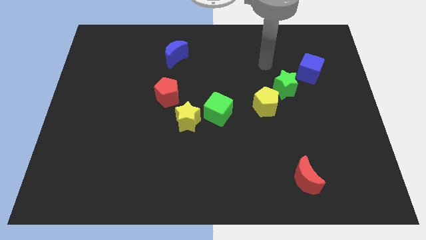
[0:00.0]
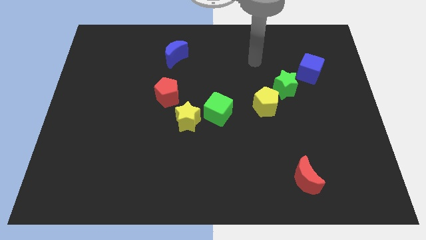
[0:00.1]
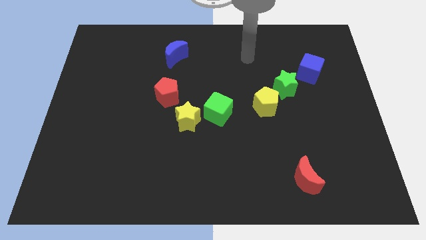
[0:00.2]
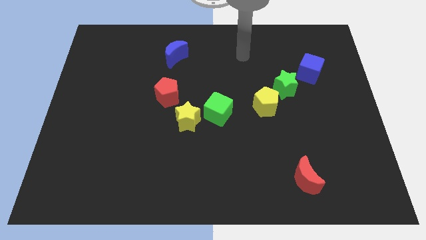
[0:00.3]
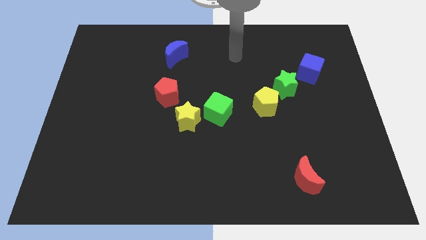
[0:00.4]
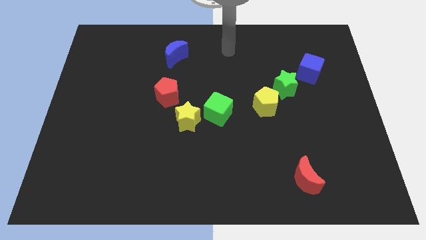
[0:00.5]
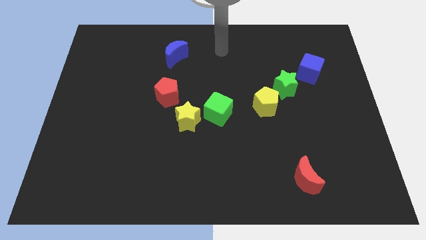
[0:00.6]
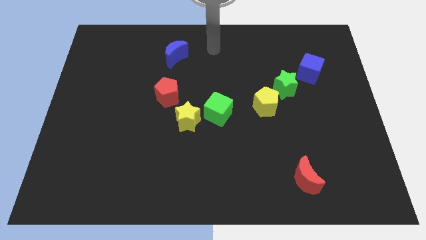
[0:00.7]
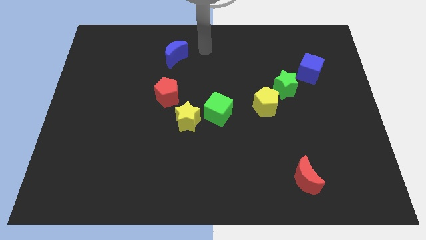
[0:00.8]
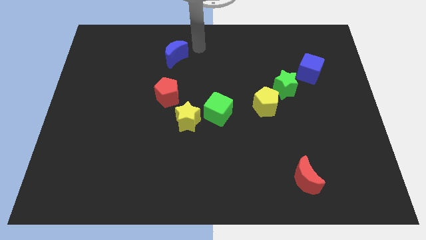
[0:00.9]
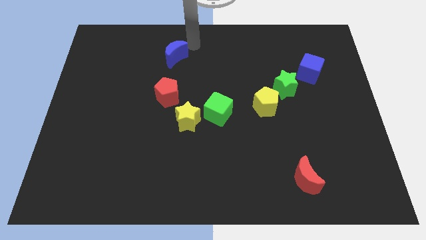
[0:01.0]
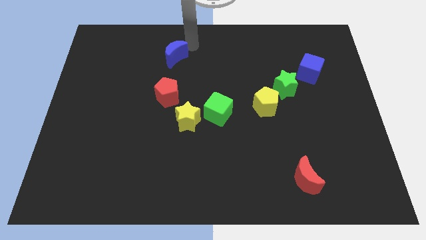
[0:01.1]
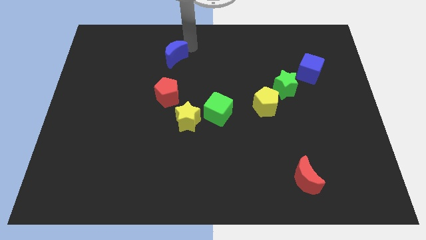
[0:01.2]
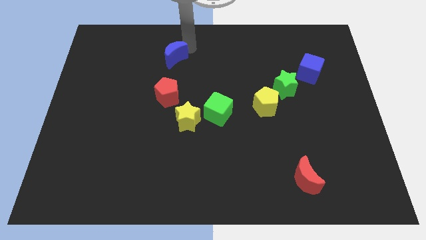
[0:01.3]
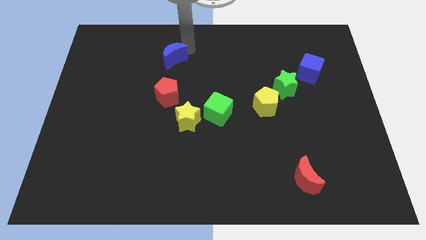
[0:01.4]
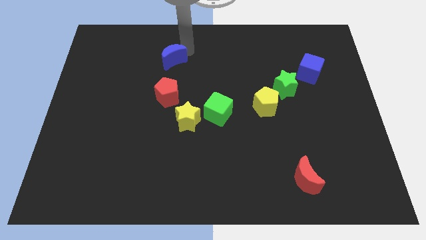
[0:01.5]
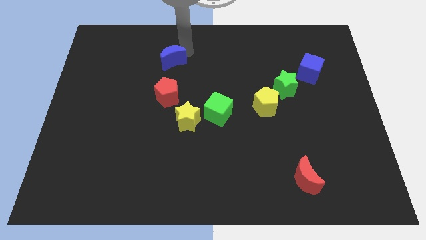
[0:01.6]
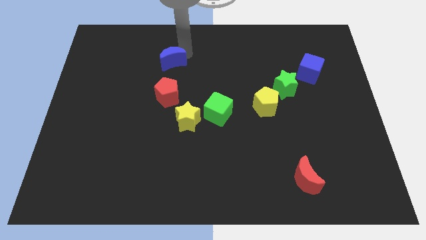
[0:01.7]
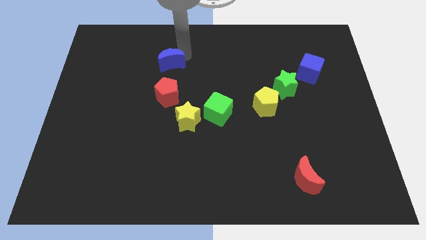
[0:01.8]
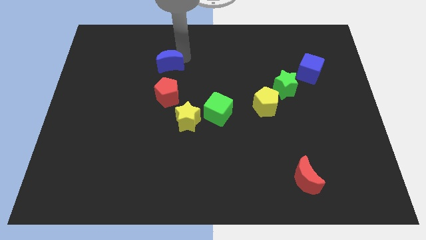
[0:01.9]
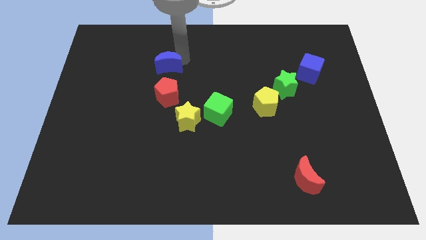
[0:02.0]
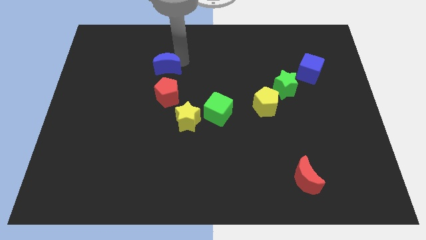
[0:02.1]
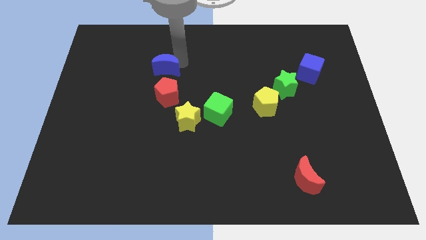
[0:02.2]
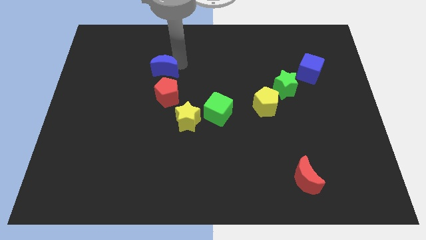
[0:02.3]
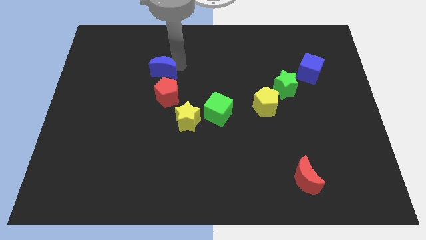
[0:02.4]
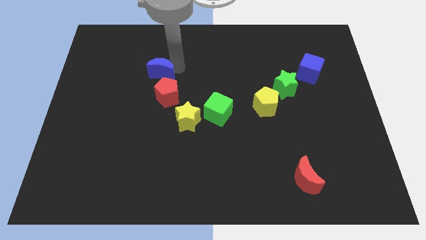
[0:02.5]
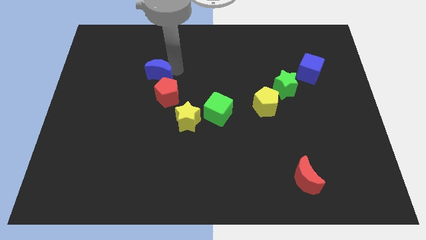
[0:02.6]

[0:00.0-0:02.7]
slightly move the blue moon downwards and then to the left

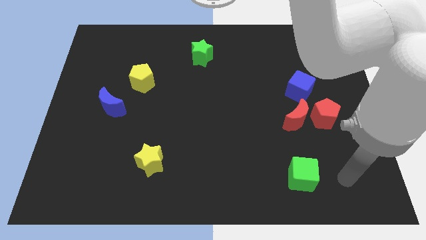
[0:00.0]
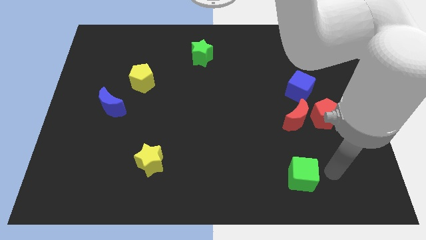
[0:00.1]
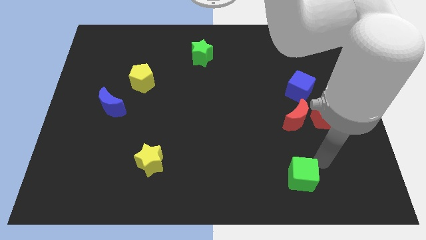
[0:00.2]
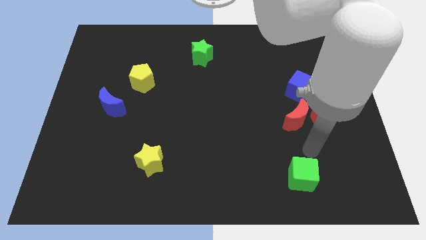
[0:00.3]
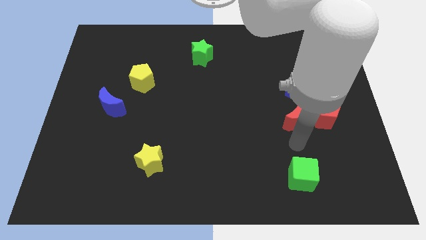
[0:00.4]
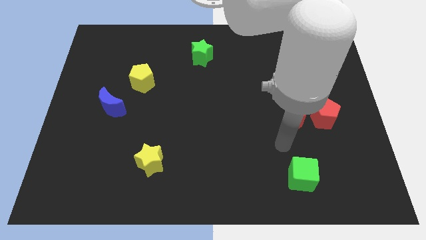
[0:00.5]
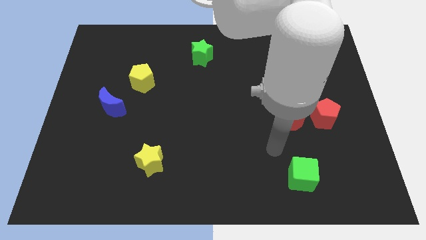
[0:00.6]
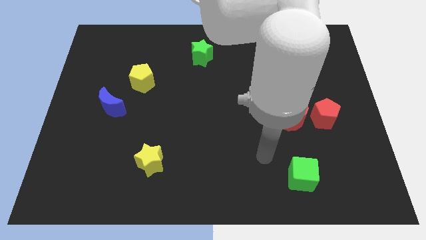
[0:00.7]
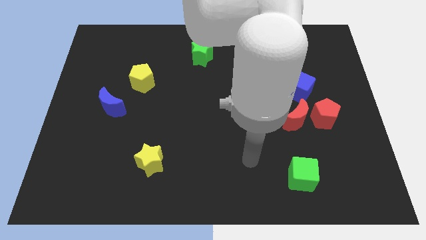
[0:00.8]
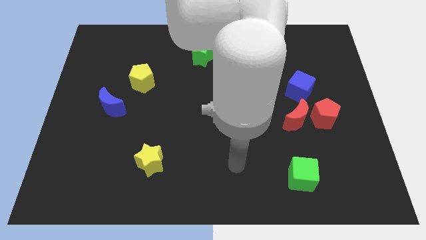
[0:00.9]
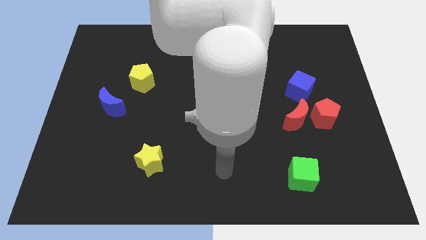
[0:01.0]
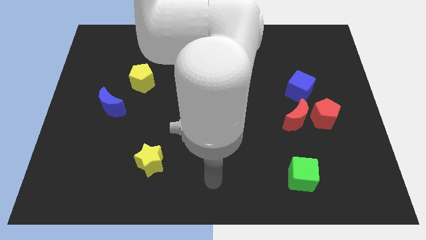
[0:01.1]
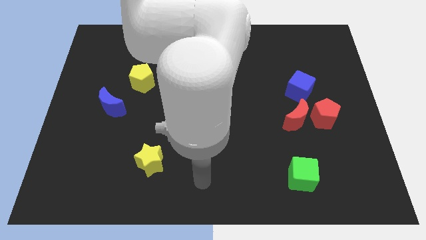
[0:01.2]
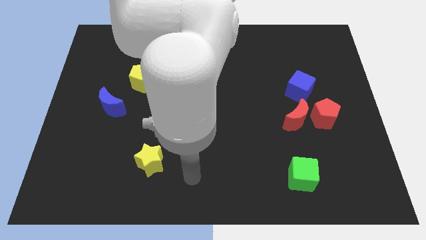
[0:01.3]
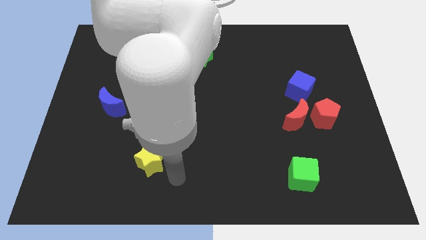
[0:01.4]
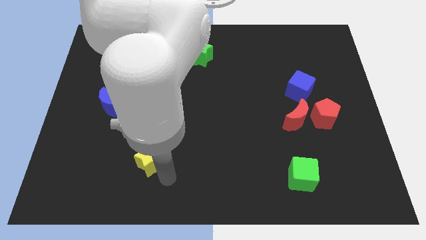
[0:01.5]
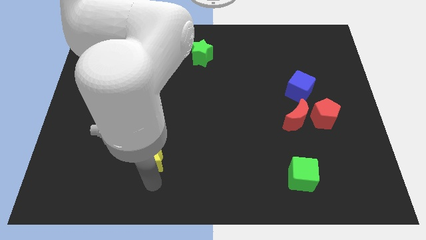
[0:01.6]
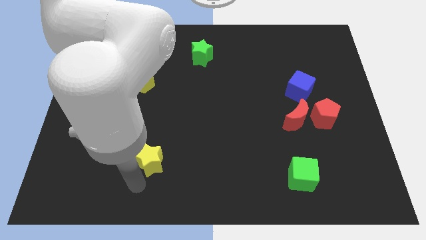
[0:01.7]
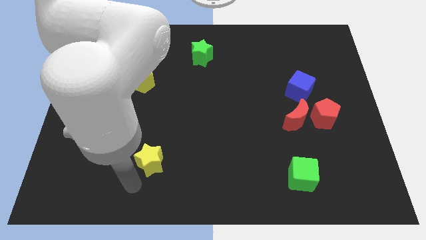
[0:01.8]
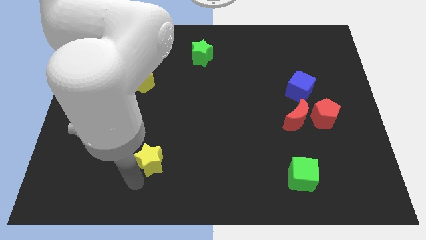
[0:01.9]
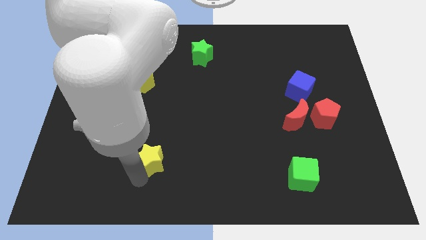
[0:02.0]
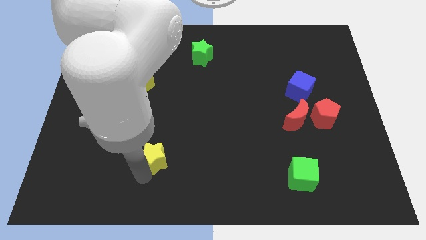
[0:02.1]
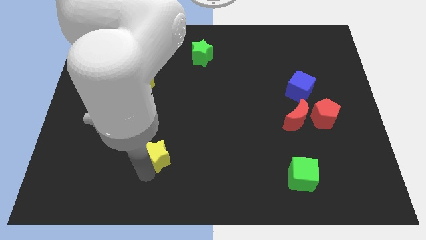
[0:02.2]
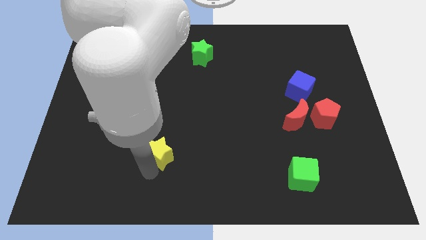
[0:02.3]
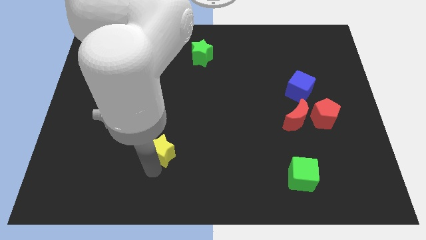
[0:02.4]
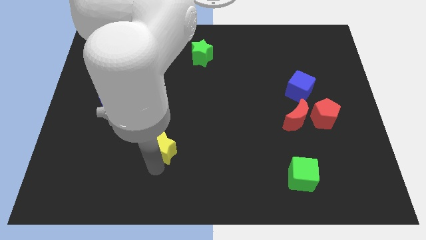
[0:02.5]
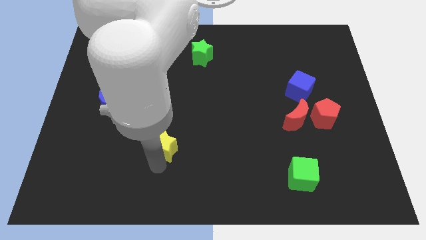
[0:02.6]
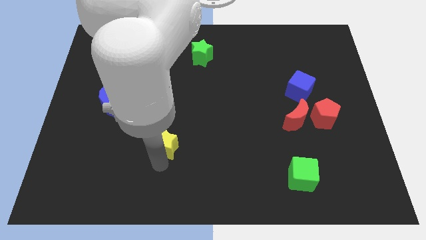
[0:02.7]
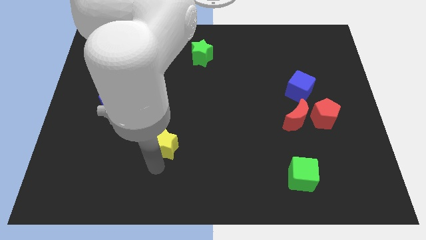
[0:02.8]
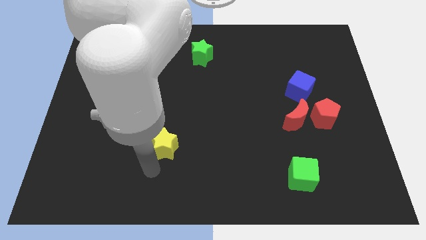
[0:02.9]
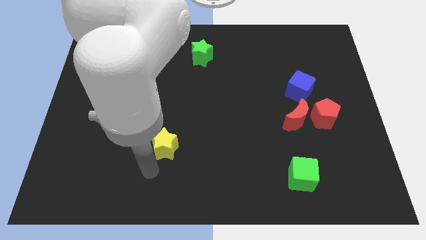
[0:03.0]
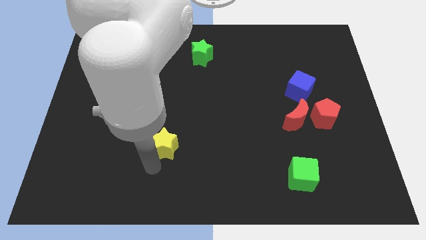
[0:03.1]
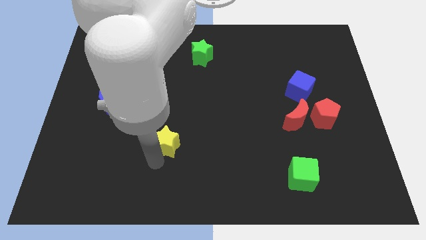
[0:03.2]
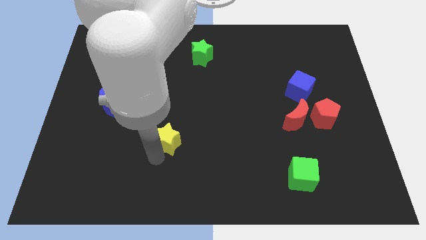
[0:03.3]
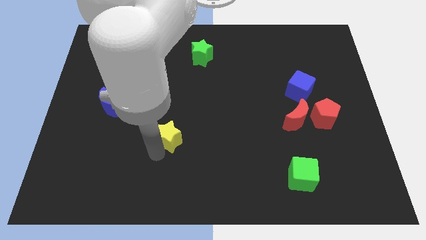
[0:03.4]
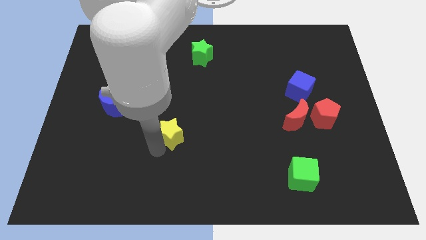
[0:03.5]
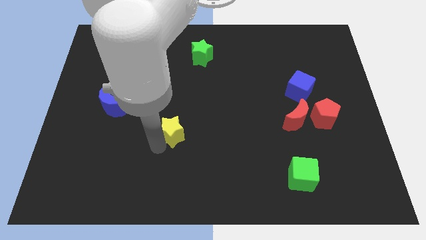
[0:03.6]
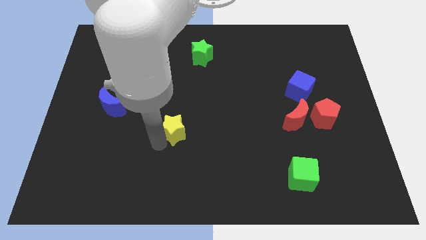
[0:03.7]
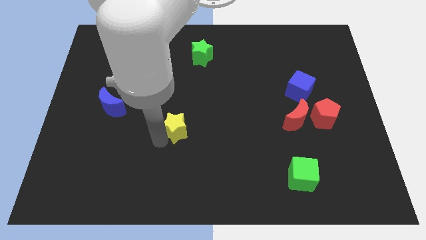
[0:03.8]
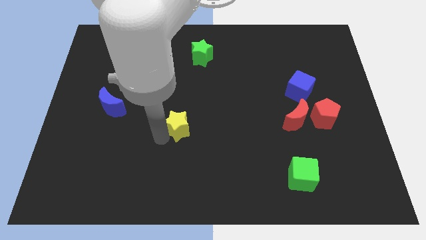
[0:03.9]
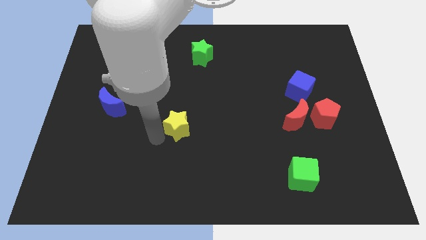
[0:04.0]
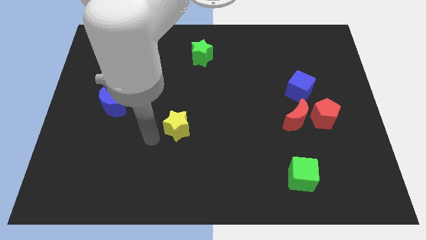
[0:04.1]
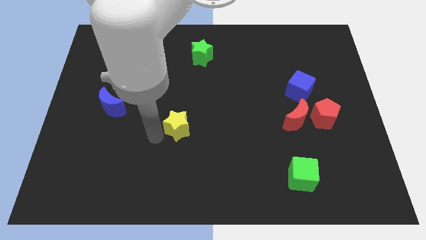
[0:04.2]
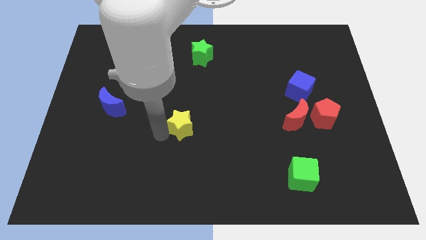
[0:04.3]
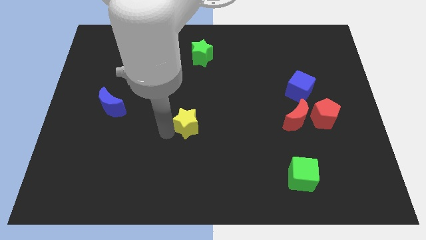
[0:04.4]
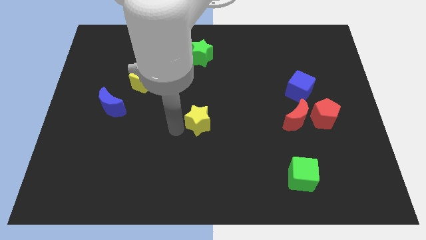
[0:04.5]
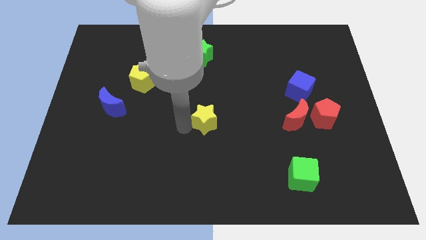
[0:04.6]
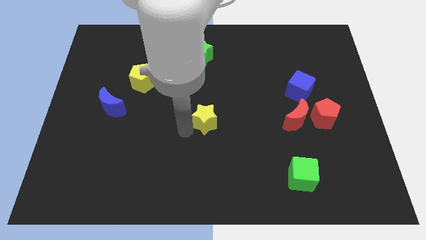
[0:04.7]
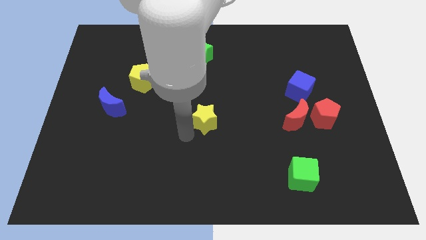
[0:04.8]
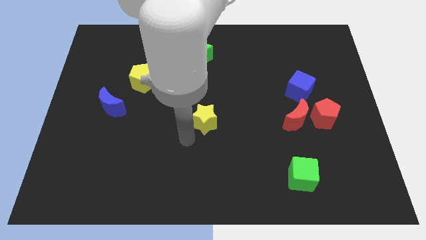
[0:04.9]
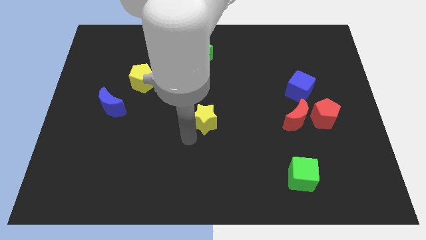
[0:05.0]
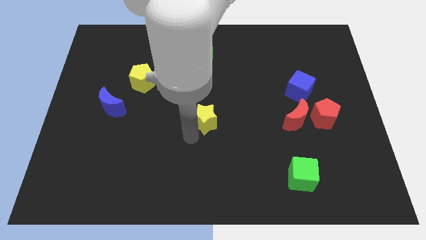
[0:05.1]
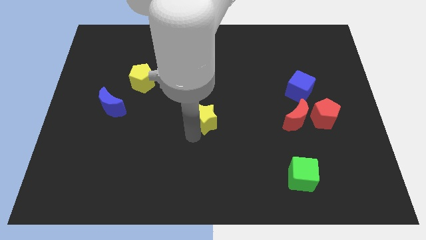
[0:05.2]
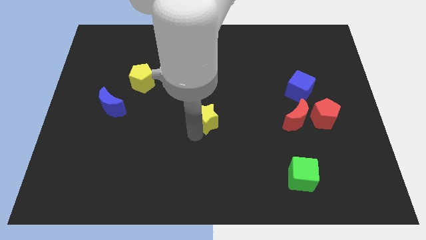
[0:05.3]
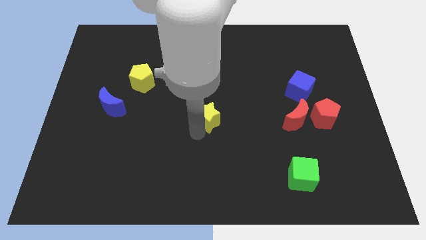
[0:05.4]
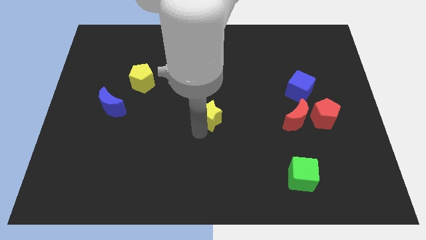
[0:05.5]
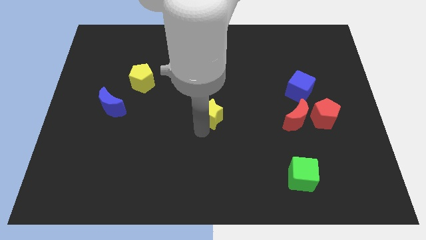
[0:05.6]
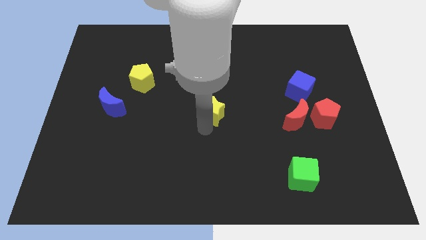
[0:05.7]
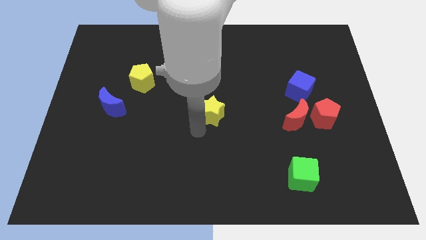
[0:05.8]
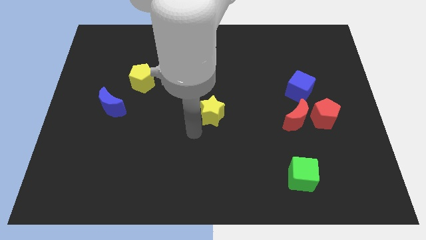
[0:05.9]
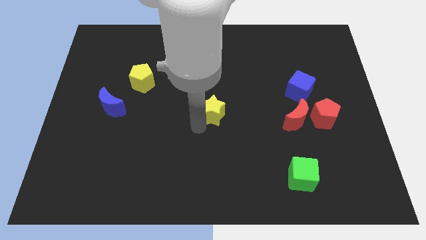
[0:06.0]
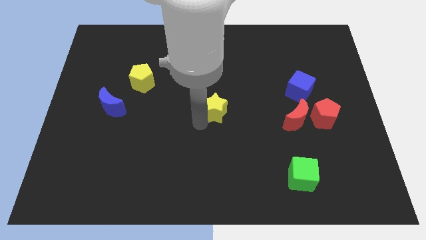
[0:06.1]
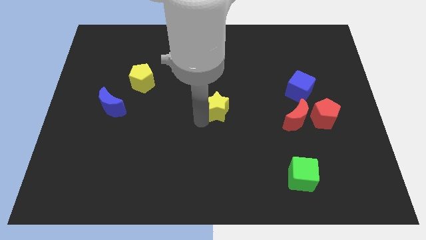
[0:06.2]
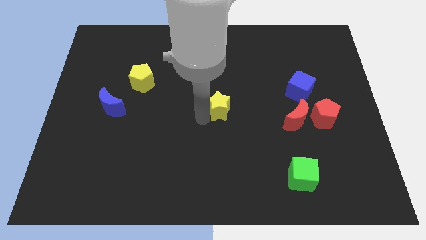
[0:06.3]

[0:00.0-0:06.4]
slide the yellow star upwards and right diagonally
